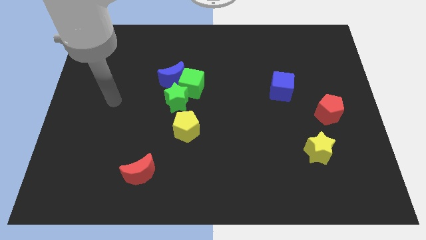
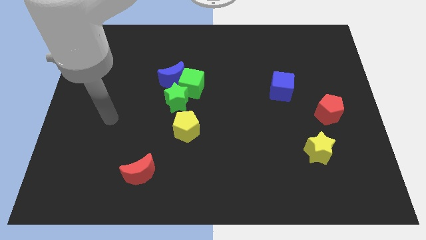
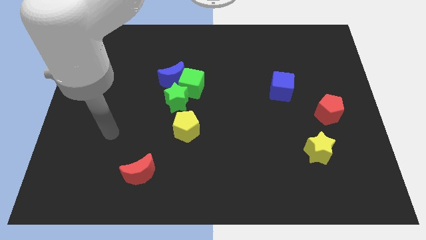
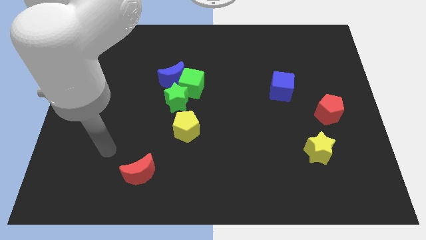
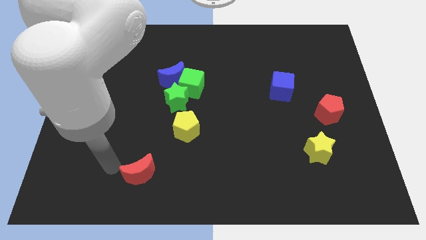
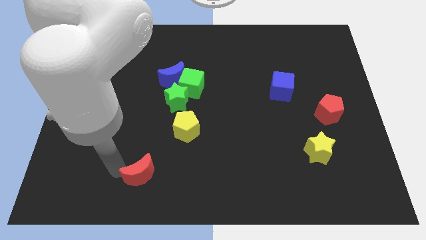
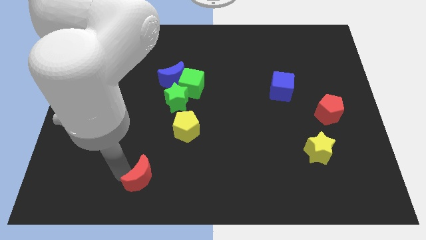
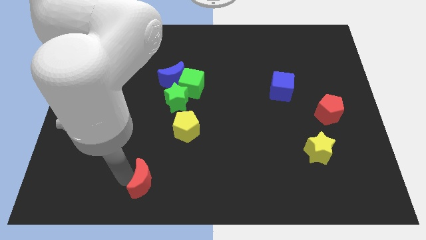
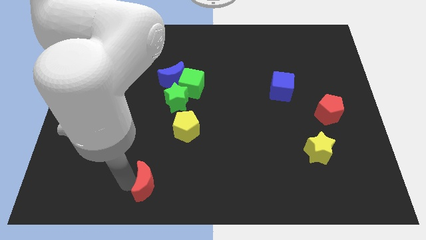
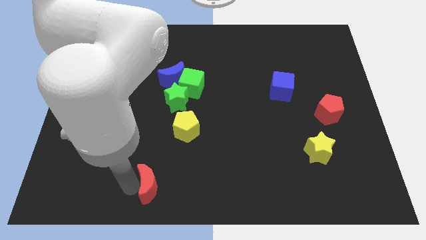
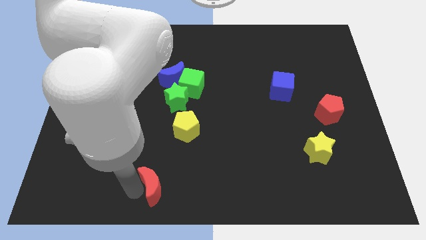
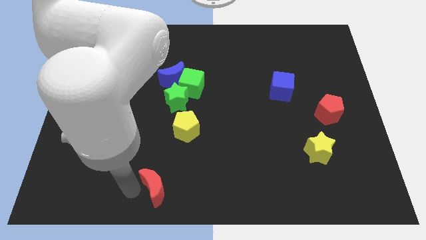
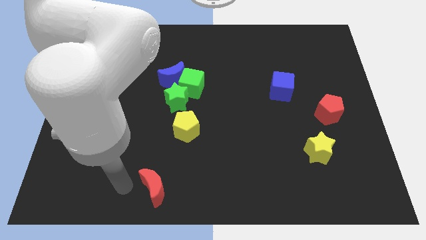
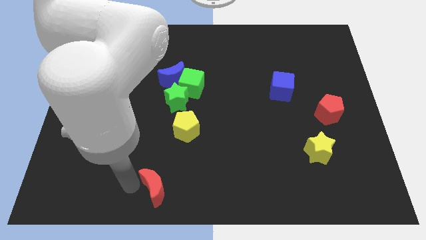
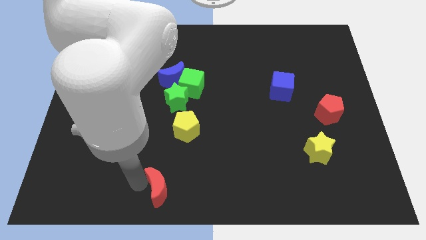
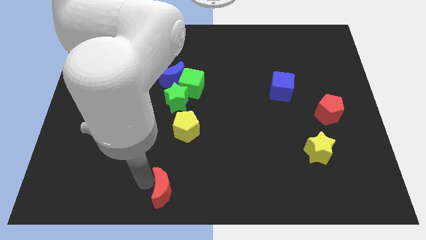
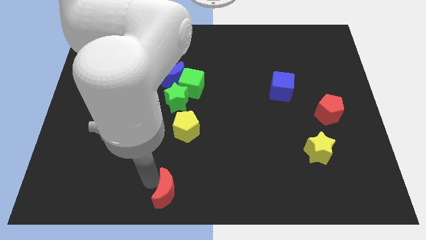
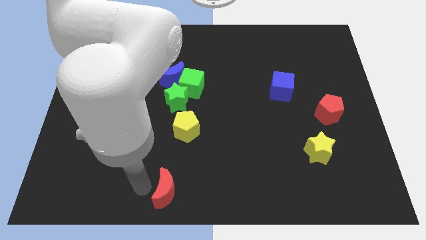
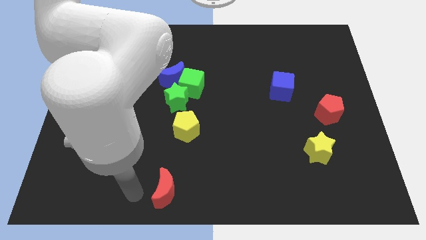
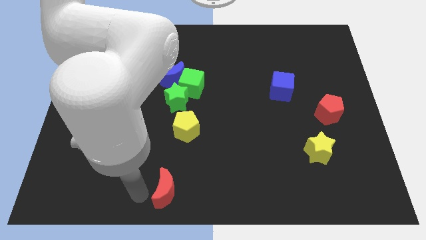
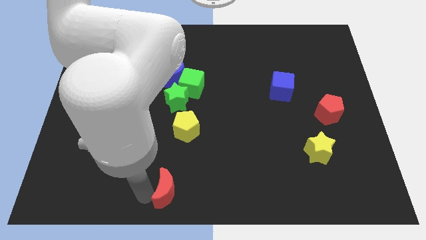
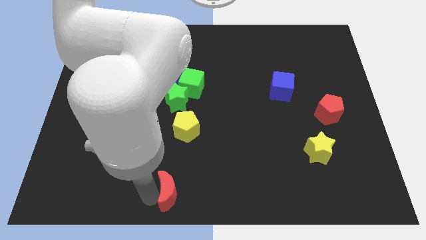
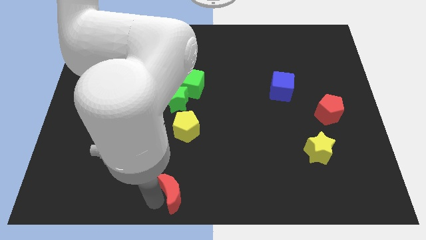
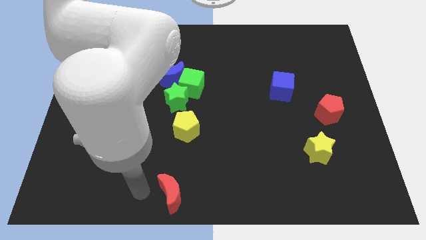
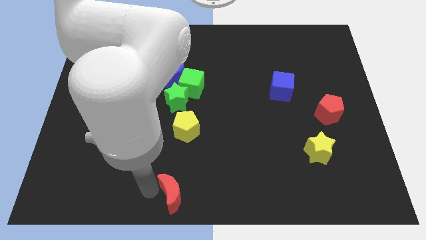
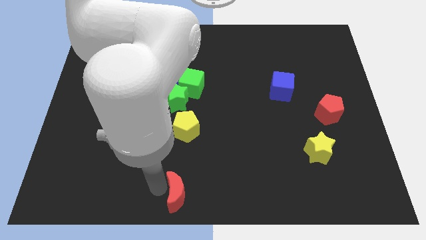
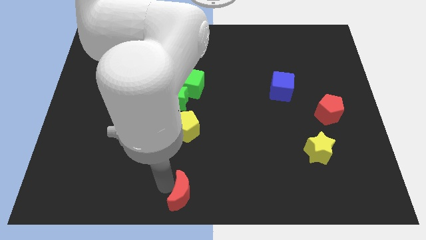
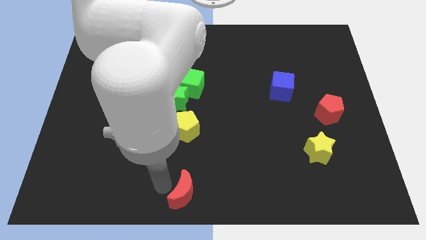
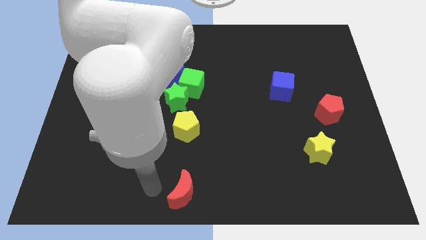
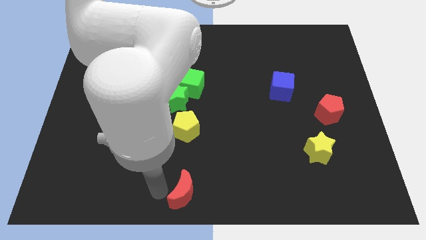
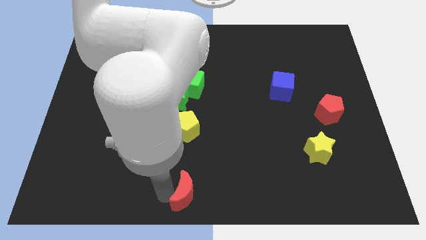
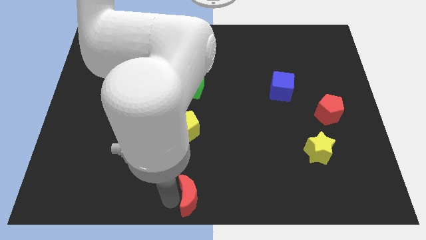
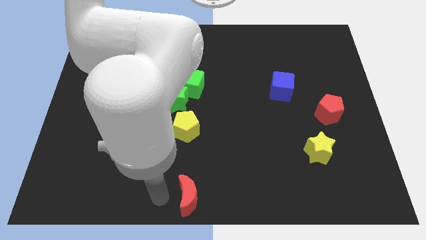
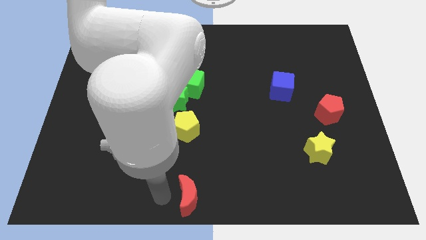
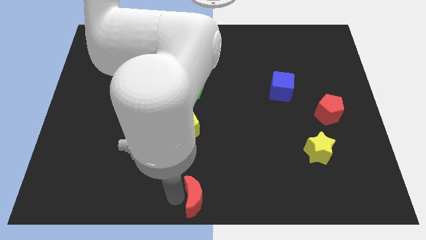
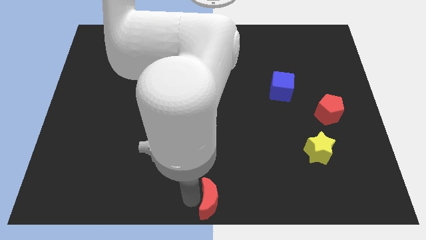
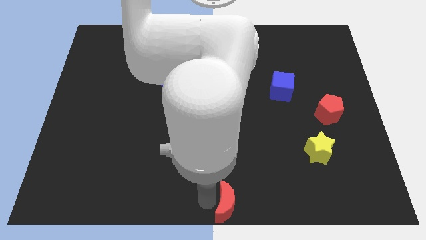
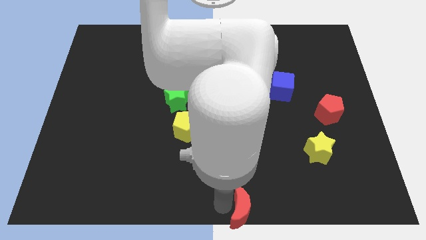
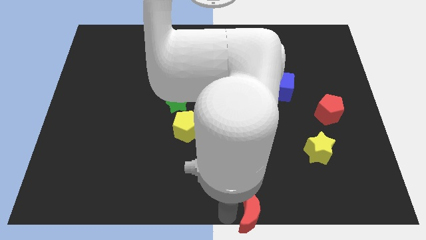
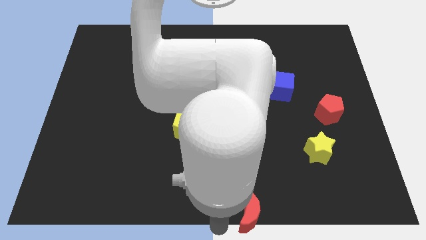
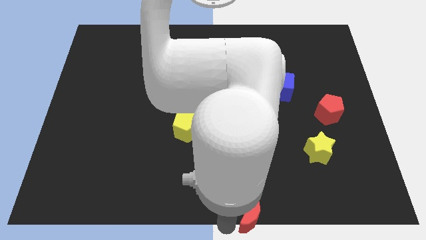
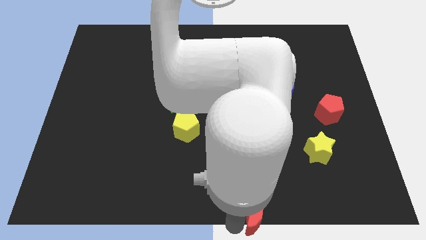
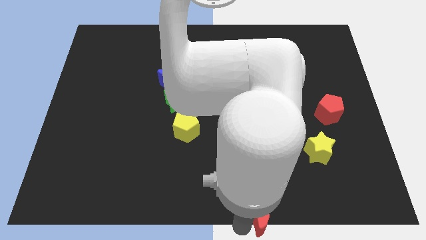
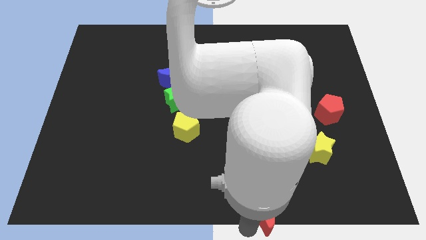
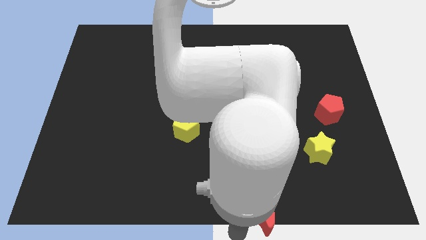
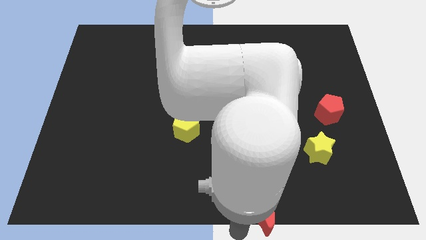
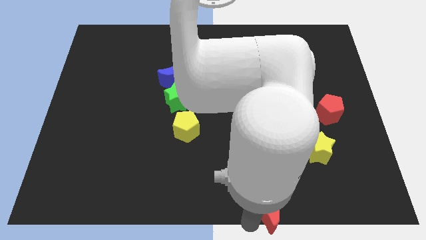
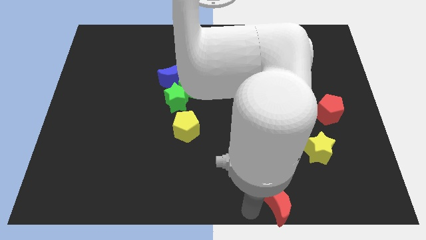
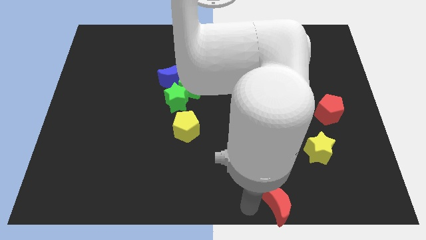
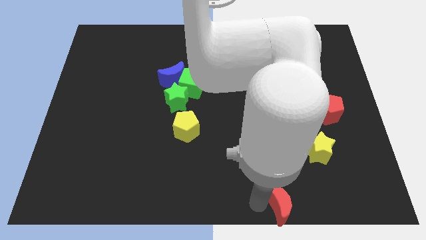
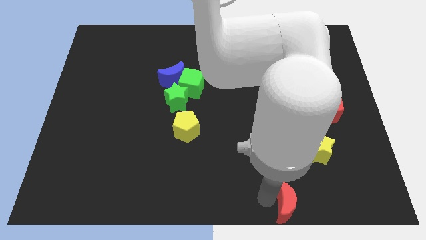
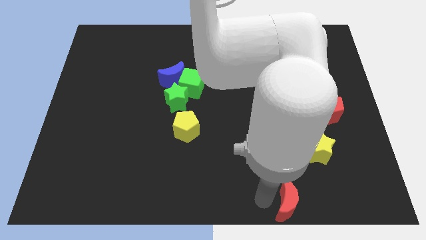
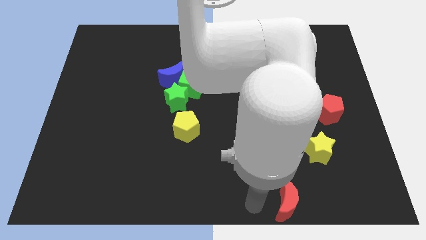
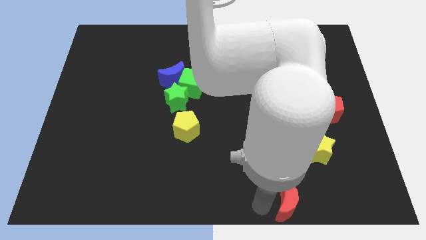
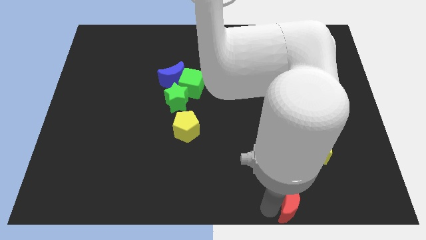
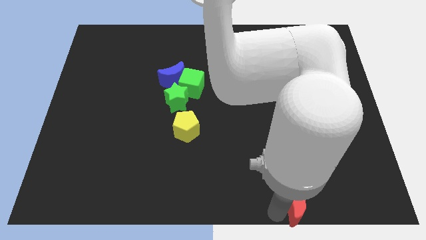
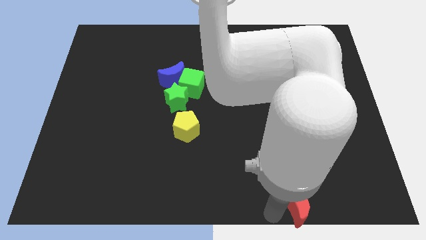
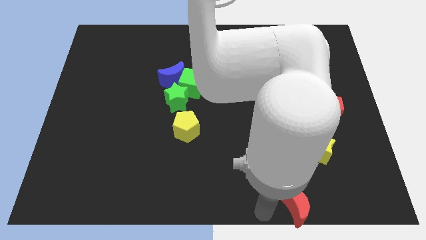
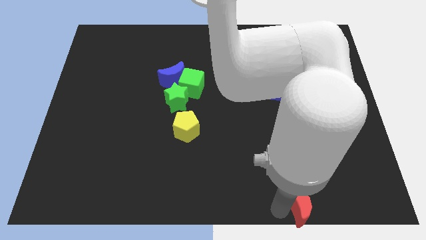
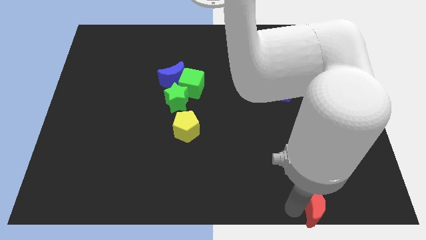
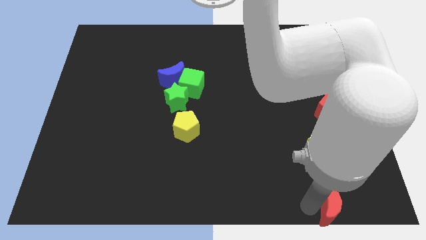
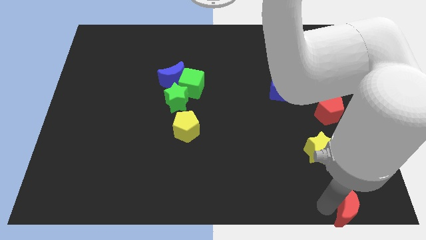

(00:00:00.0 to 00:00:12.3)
move the red moon to the bottom right
